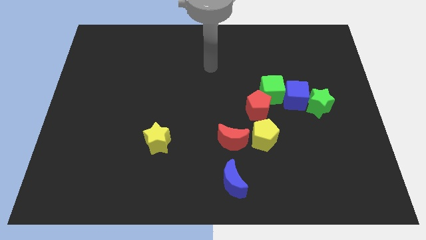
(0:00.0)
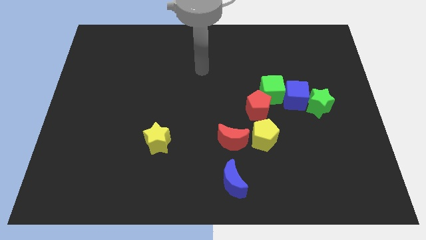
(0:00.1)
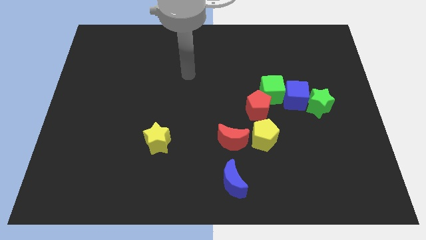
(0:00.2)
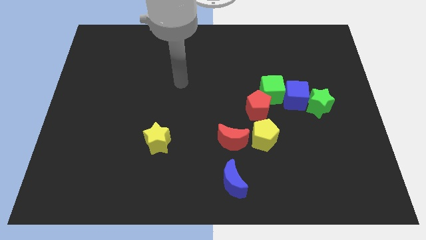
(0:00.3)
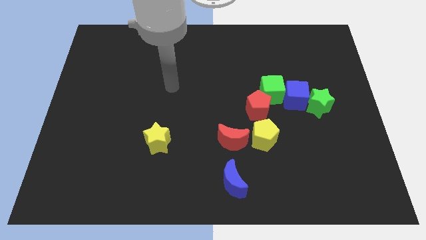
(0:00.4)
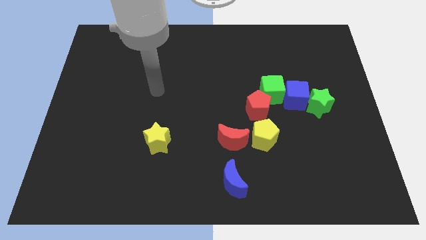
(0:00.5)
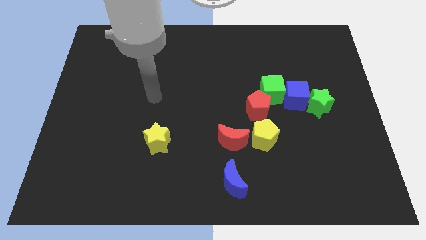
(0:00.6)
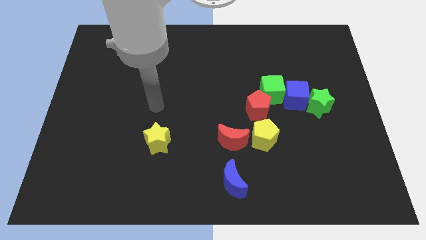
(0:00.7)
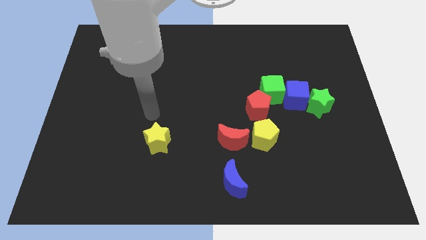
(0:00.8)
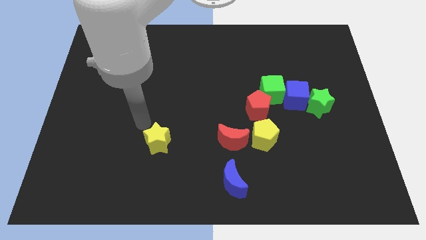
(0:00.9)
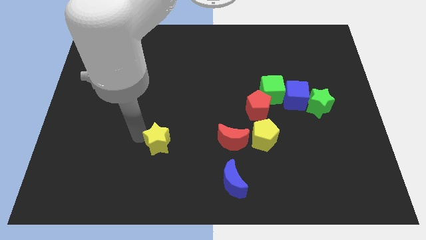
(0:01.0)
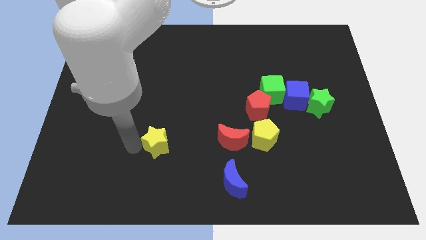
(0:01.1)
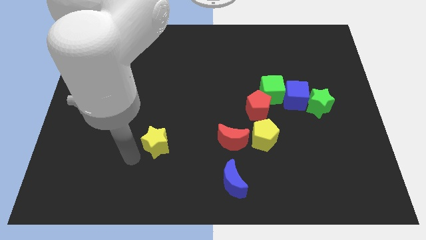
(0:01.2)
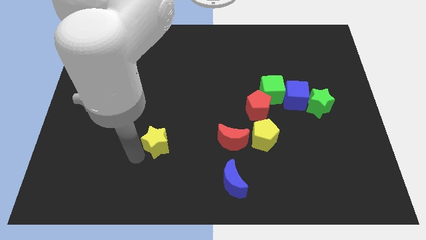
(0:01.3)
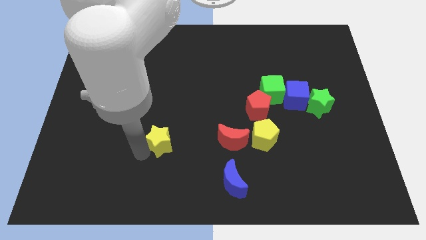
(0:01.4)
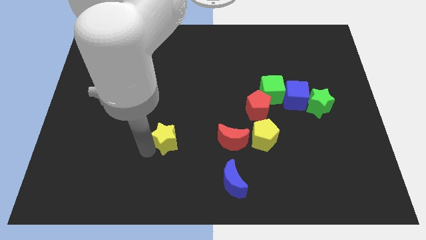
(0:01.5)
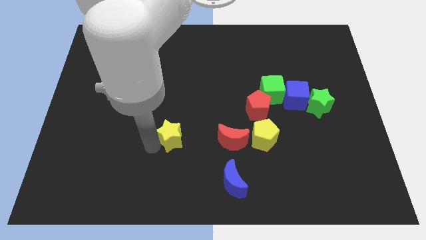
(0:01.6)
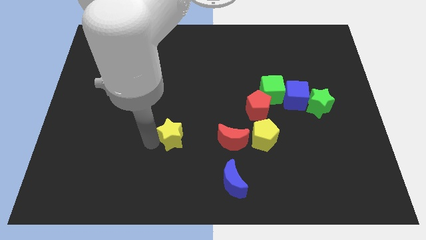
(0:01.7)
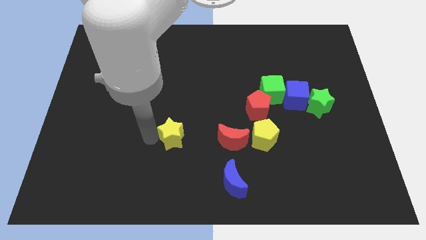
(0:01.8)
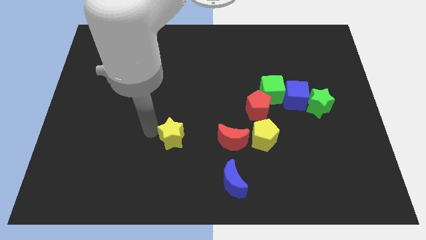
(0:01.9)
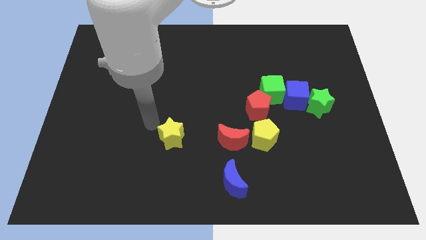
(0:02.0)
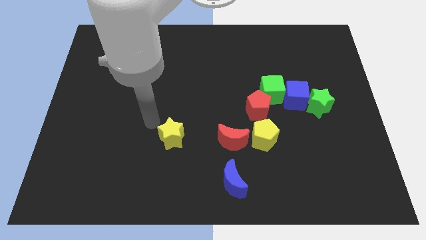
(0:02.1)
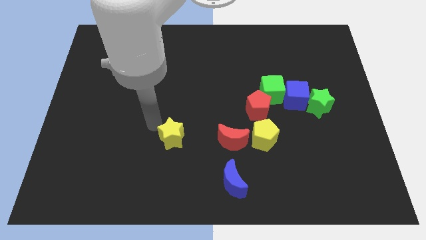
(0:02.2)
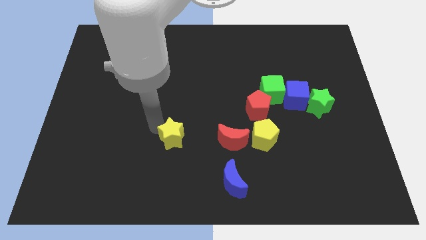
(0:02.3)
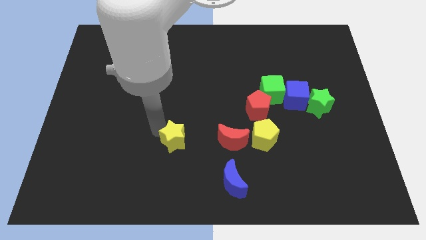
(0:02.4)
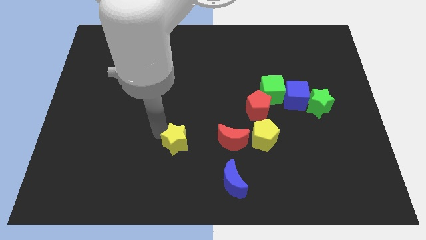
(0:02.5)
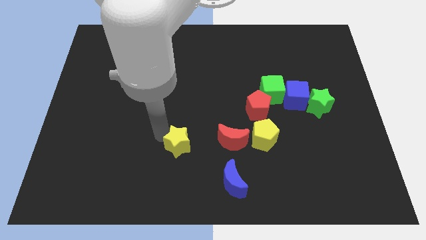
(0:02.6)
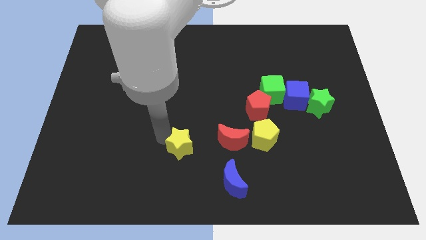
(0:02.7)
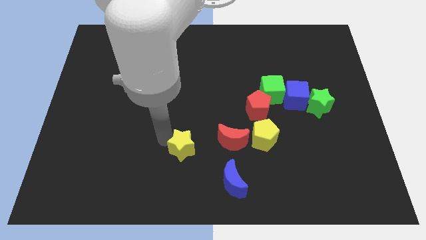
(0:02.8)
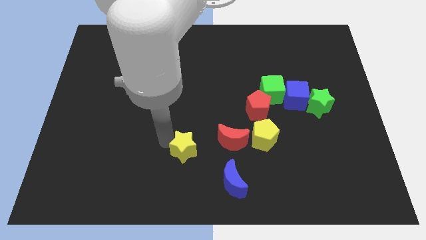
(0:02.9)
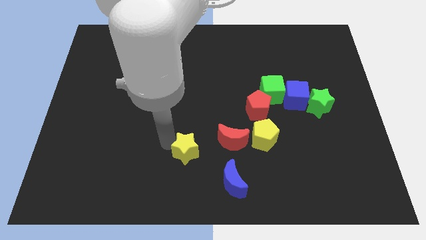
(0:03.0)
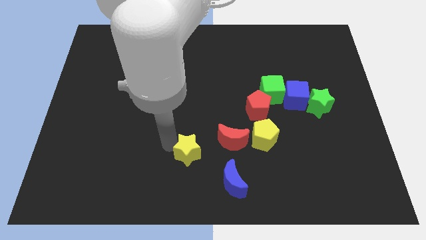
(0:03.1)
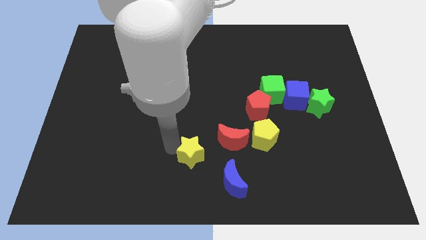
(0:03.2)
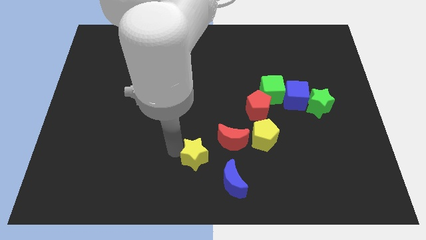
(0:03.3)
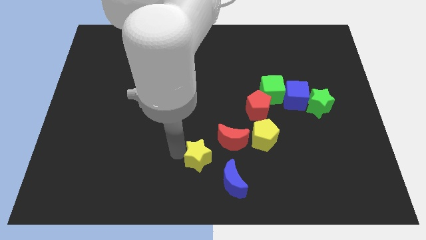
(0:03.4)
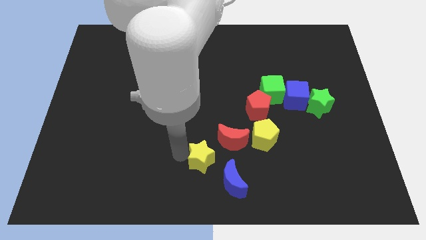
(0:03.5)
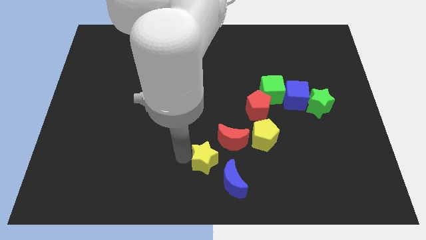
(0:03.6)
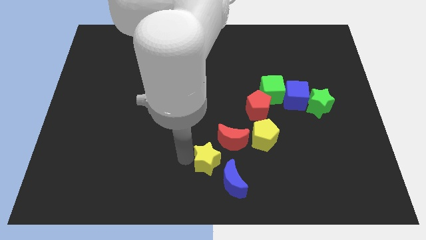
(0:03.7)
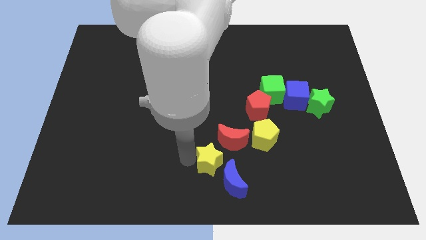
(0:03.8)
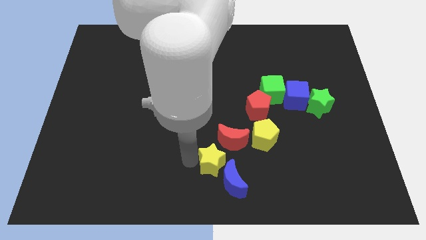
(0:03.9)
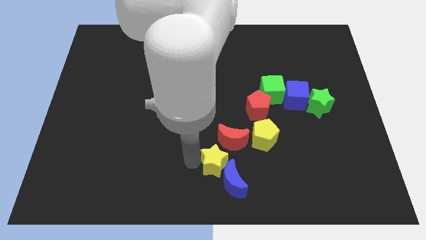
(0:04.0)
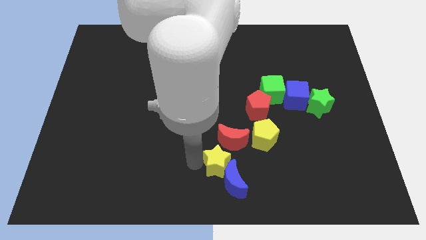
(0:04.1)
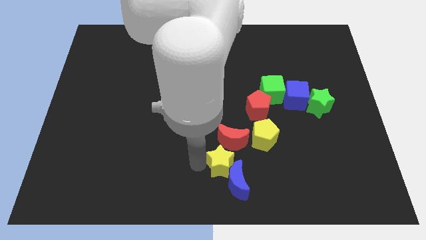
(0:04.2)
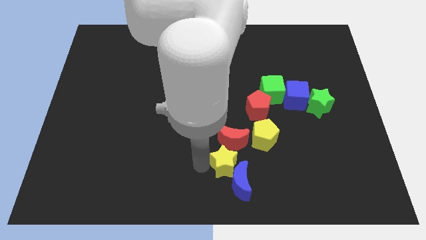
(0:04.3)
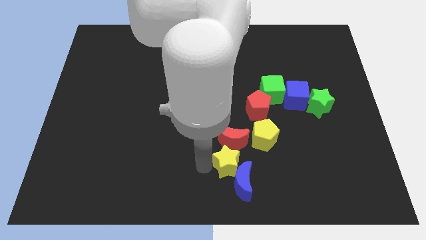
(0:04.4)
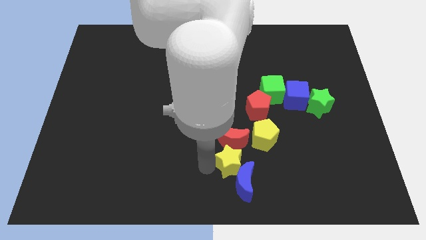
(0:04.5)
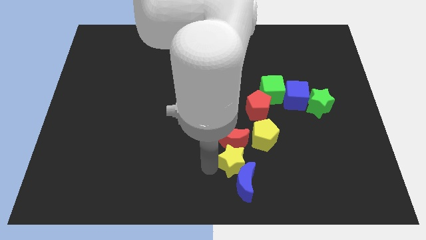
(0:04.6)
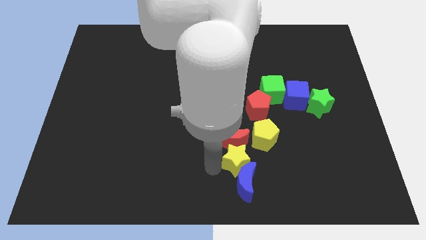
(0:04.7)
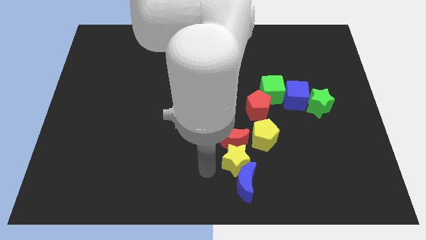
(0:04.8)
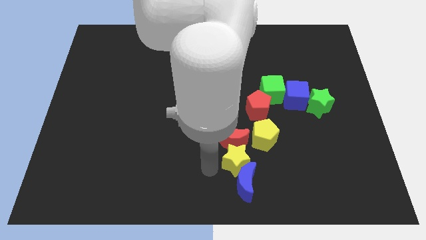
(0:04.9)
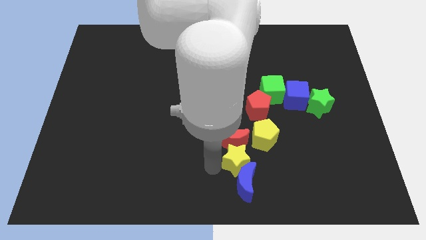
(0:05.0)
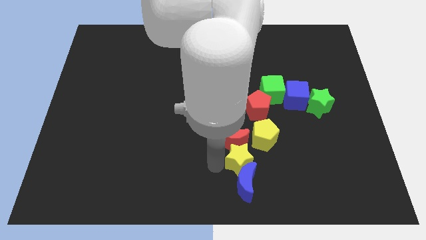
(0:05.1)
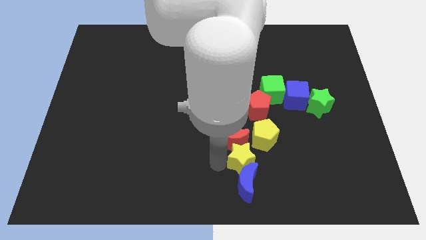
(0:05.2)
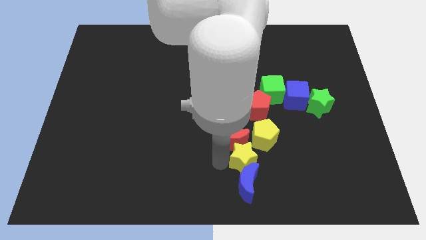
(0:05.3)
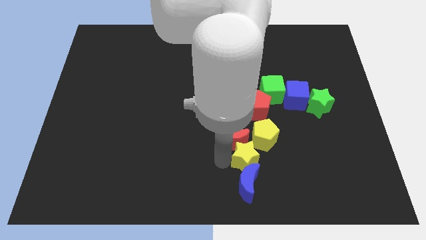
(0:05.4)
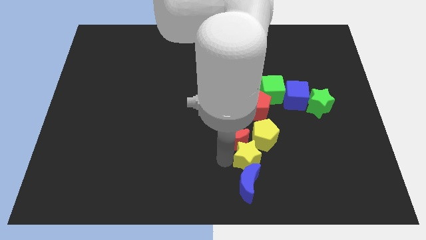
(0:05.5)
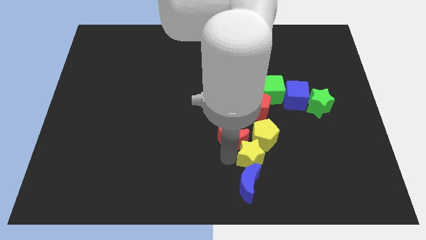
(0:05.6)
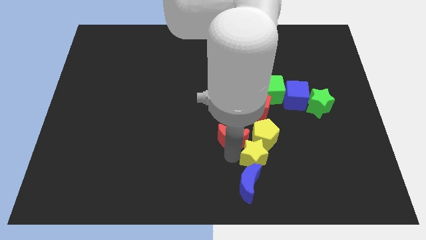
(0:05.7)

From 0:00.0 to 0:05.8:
slide the yellow star to the right

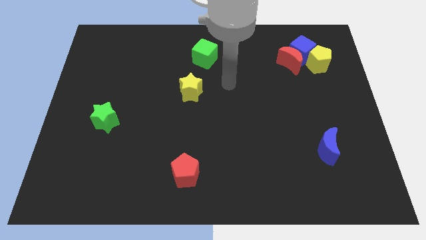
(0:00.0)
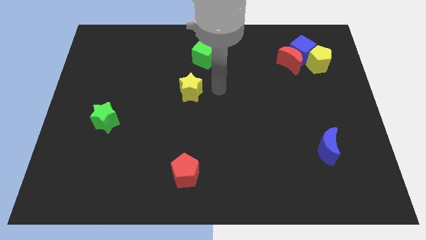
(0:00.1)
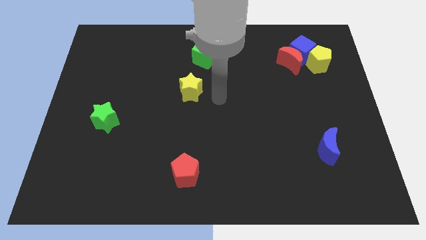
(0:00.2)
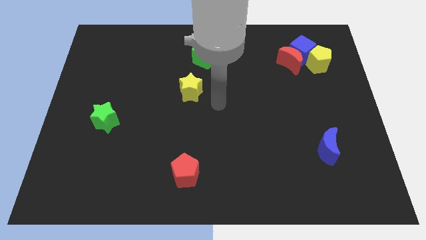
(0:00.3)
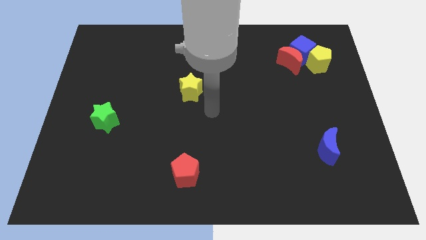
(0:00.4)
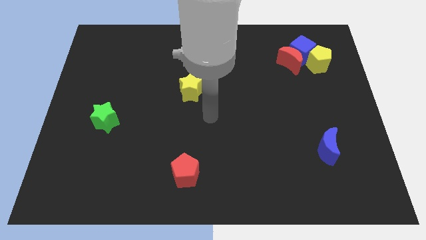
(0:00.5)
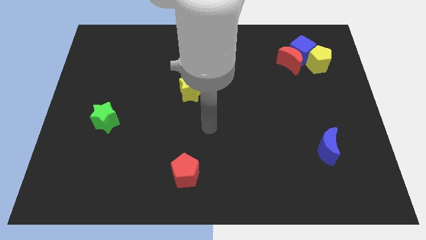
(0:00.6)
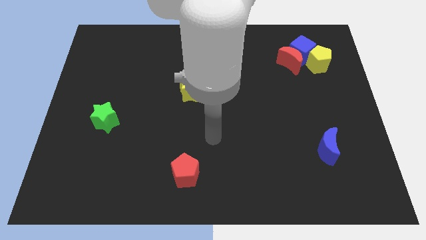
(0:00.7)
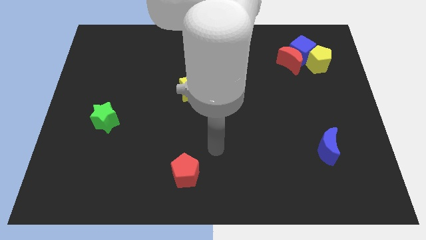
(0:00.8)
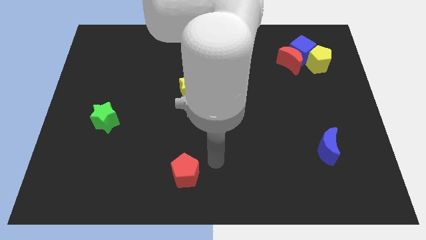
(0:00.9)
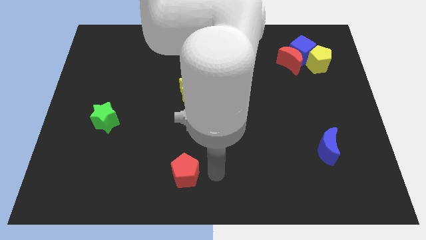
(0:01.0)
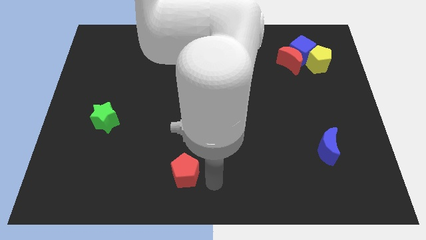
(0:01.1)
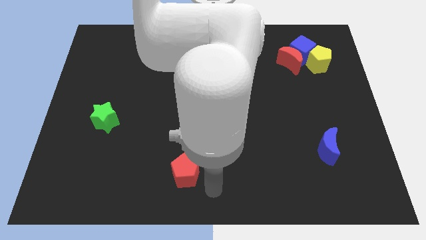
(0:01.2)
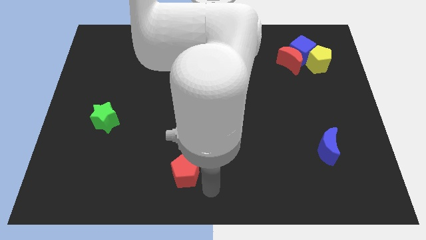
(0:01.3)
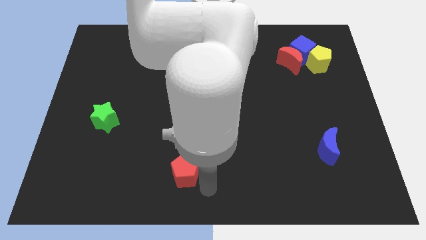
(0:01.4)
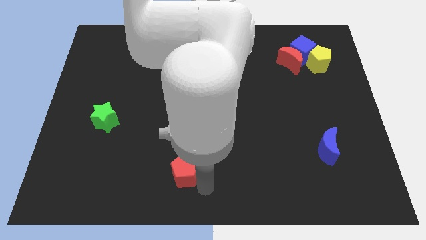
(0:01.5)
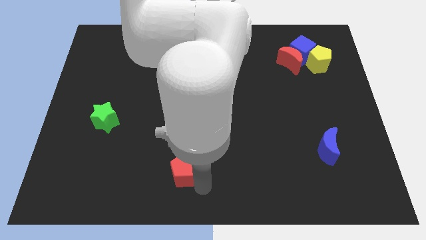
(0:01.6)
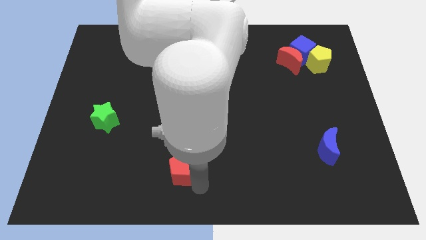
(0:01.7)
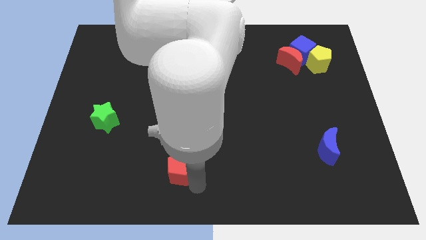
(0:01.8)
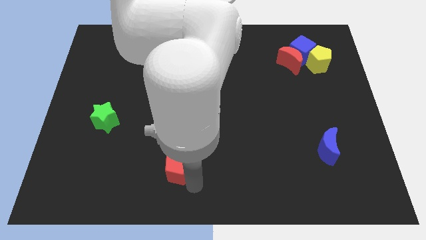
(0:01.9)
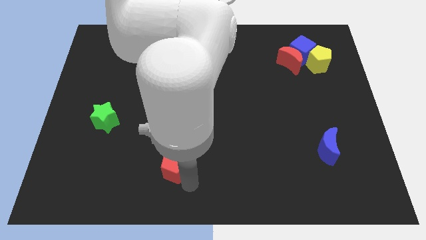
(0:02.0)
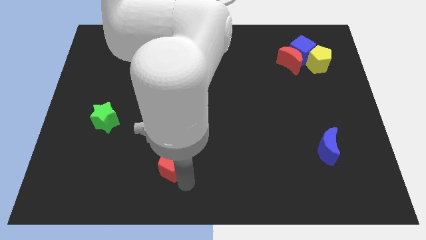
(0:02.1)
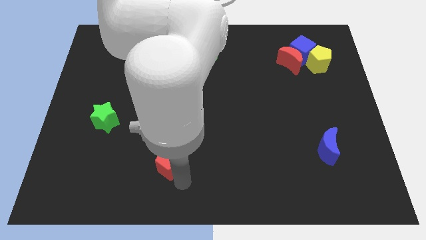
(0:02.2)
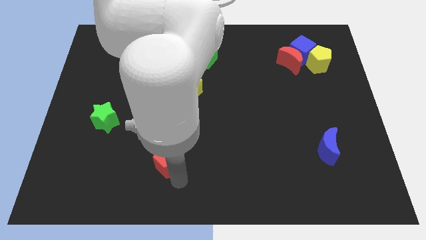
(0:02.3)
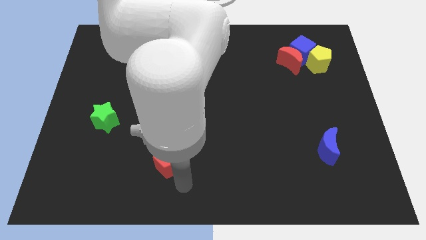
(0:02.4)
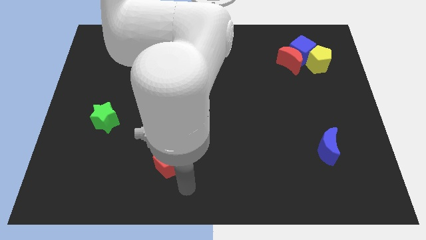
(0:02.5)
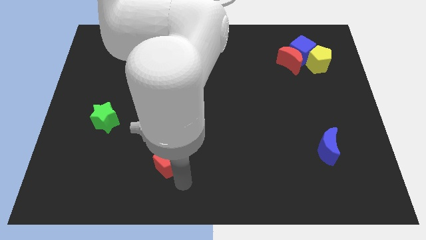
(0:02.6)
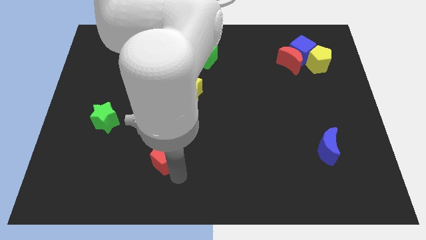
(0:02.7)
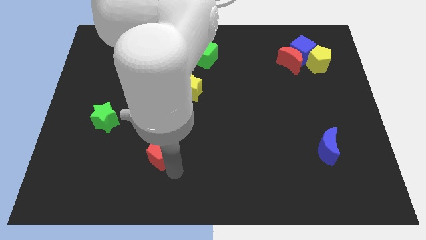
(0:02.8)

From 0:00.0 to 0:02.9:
push the red pentagon a little bit upwards and to the left diagonally
